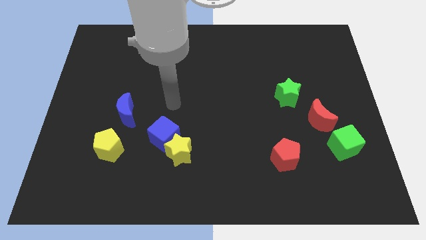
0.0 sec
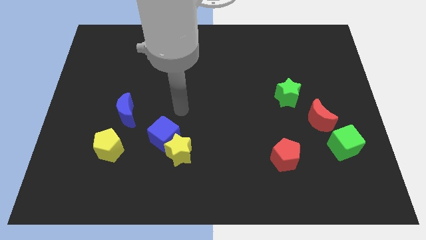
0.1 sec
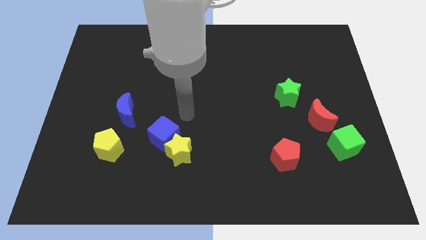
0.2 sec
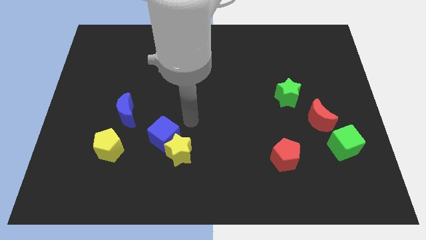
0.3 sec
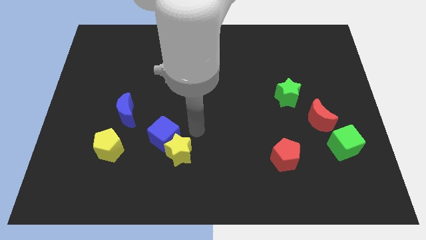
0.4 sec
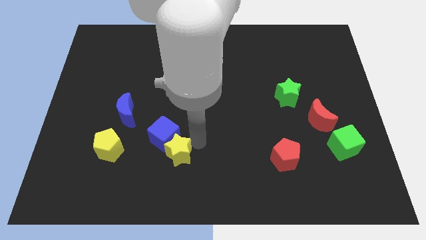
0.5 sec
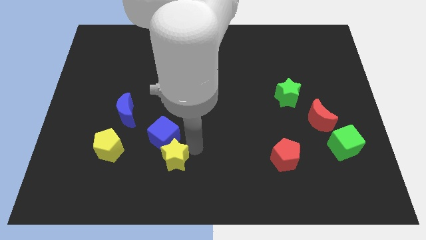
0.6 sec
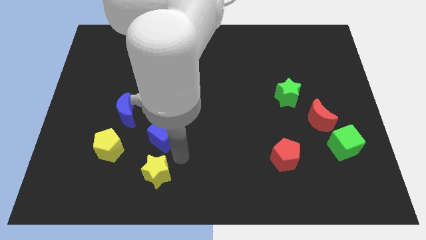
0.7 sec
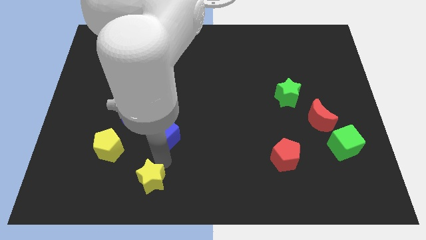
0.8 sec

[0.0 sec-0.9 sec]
move the blue cube away from the yellow star

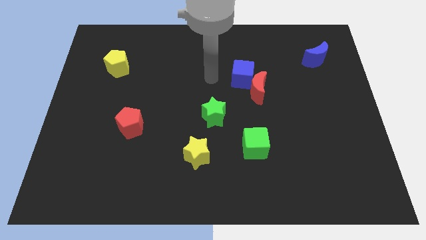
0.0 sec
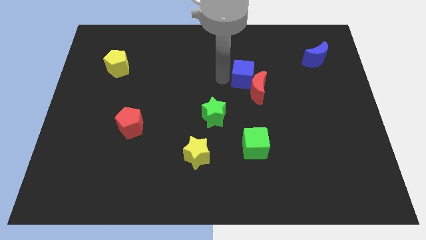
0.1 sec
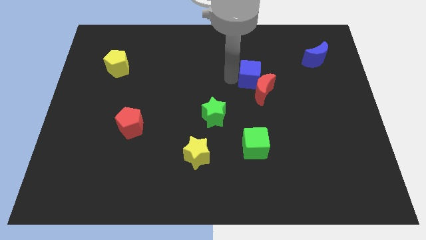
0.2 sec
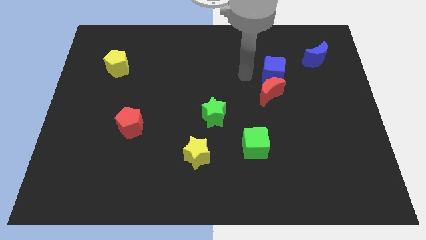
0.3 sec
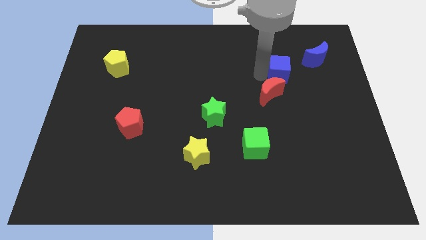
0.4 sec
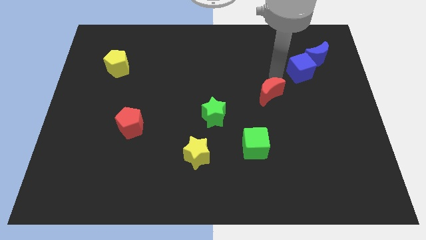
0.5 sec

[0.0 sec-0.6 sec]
move the red moon away from the blue cube

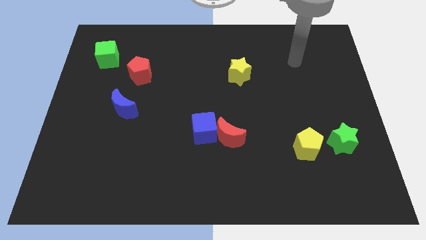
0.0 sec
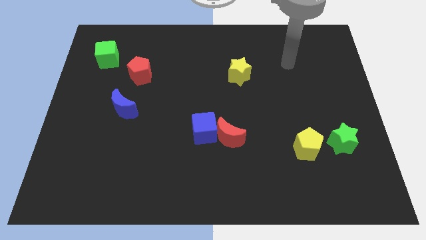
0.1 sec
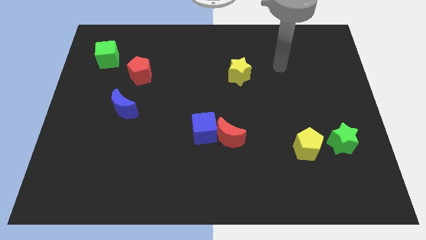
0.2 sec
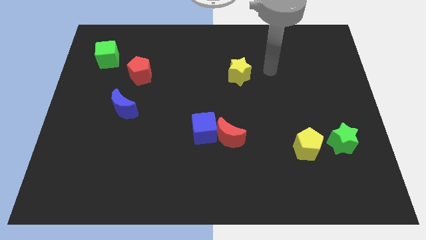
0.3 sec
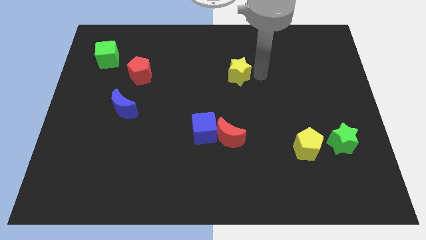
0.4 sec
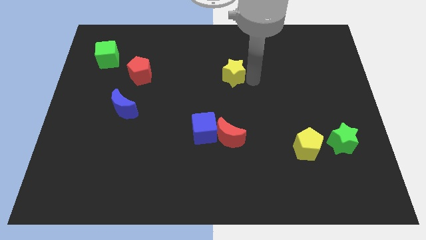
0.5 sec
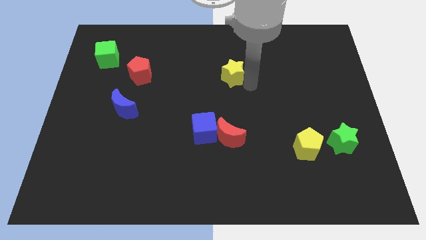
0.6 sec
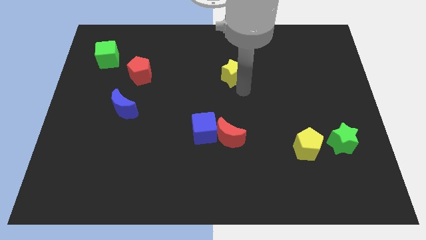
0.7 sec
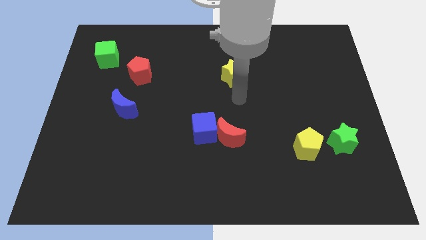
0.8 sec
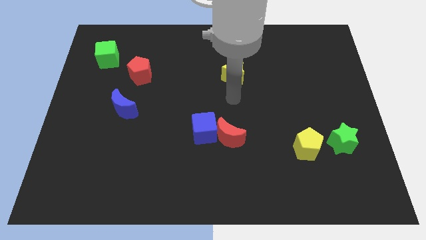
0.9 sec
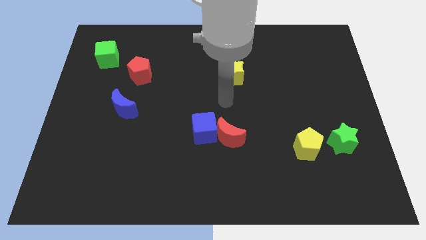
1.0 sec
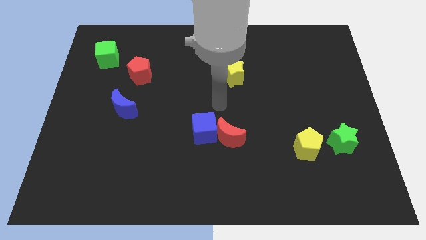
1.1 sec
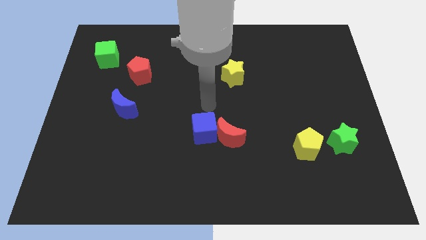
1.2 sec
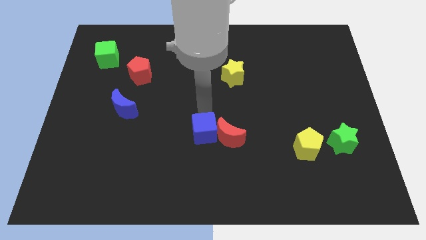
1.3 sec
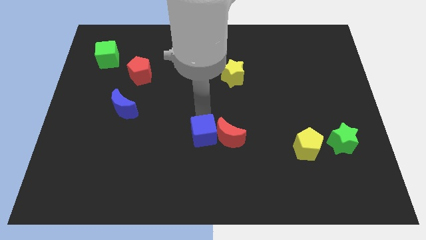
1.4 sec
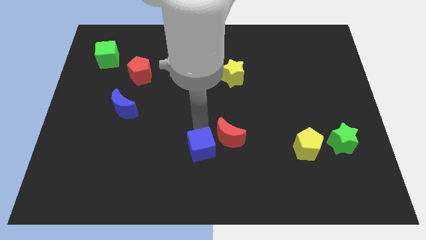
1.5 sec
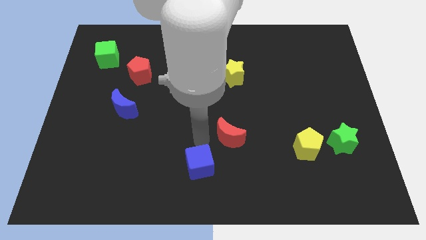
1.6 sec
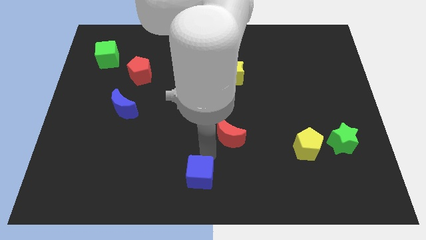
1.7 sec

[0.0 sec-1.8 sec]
pull the red moon apart from the blue cube

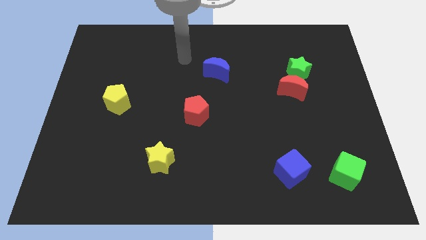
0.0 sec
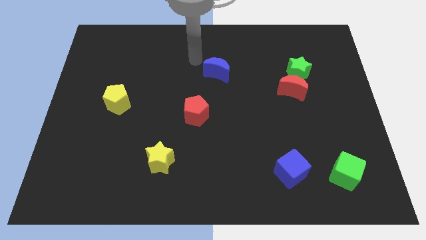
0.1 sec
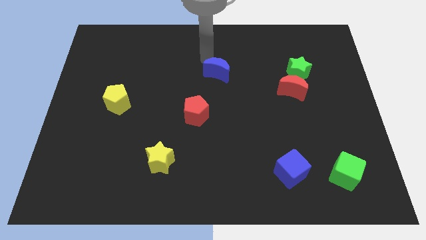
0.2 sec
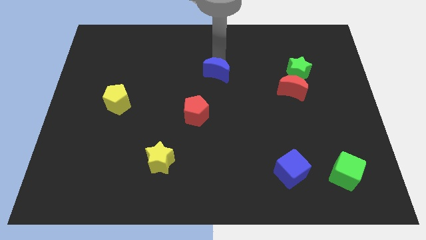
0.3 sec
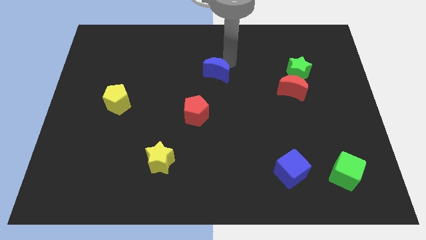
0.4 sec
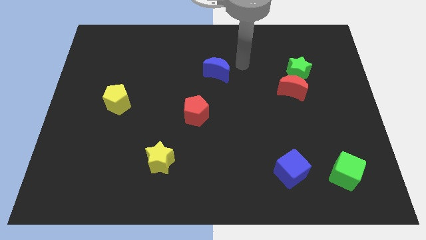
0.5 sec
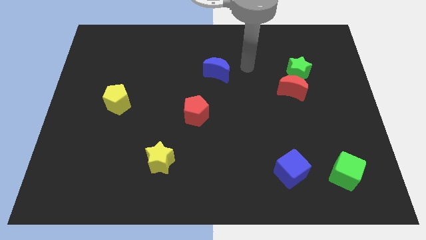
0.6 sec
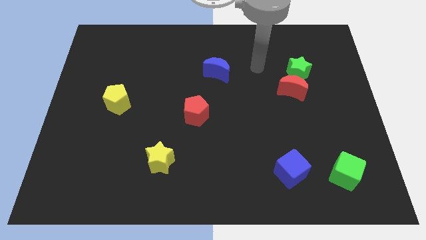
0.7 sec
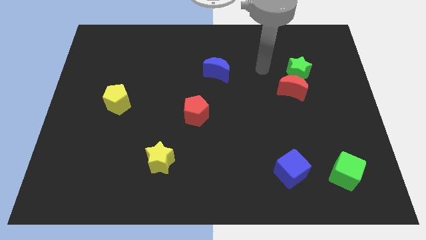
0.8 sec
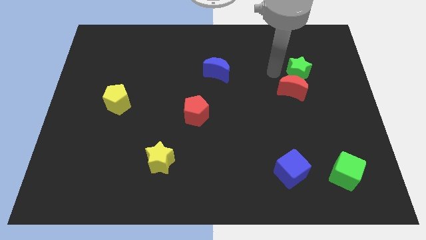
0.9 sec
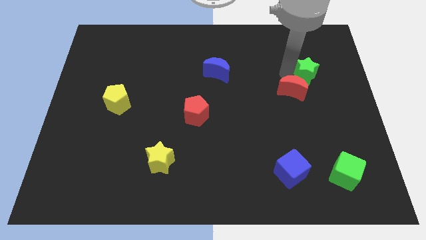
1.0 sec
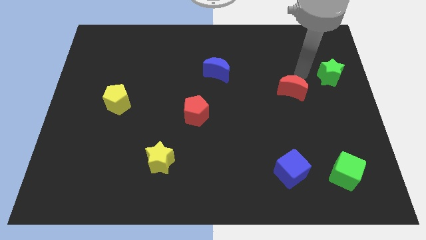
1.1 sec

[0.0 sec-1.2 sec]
pull the red moon apart from the green star

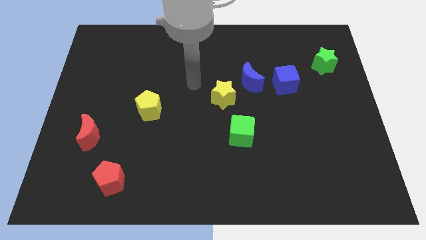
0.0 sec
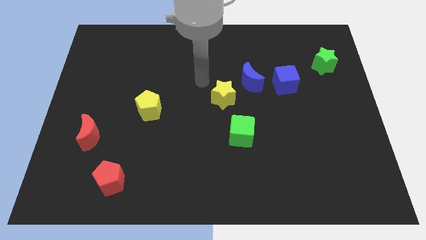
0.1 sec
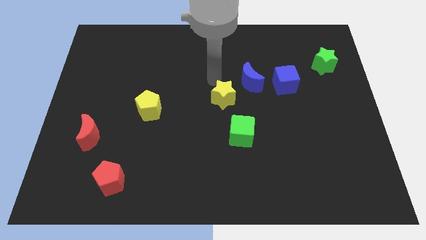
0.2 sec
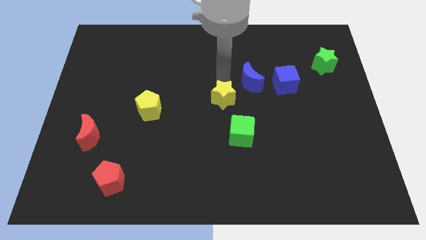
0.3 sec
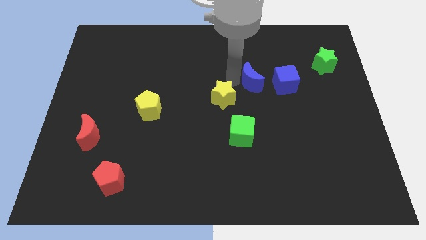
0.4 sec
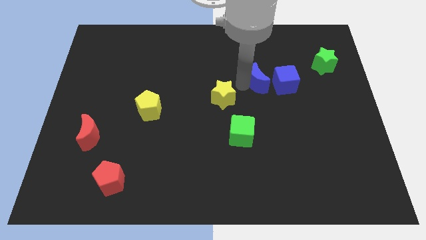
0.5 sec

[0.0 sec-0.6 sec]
move the yellow star away from the blue moon

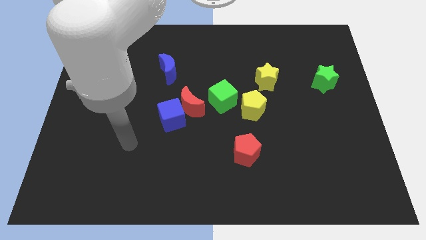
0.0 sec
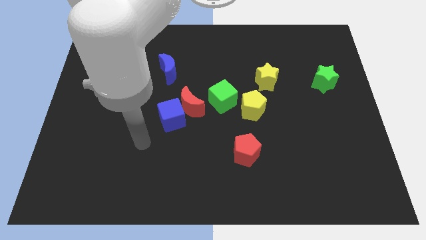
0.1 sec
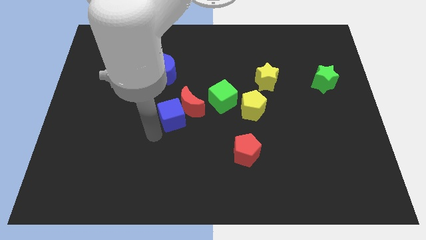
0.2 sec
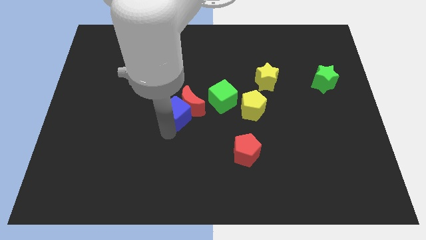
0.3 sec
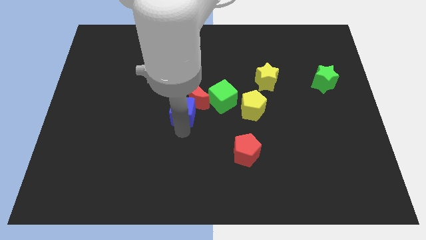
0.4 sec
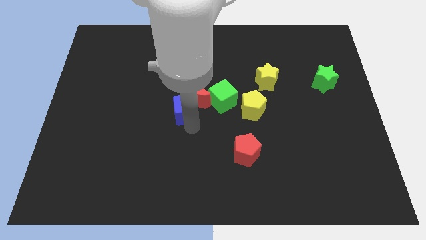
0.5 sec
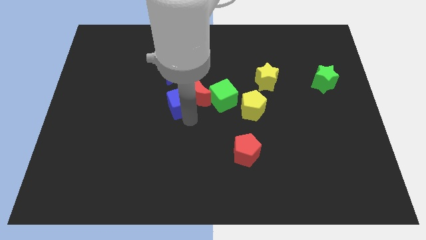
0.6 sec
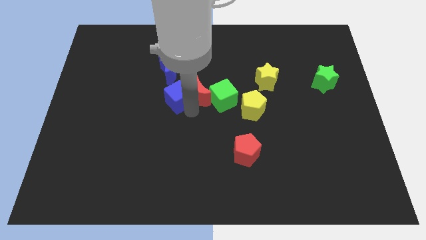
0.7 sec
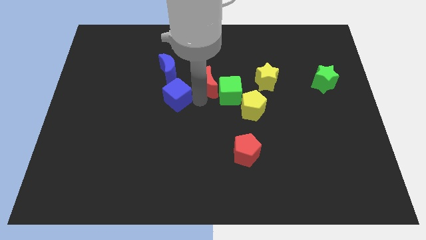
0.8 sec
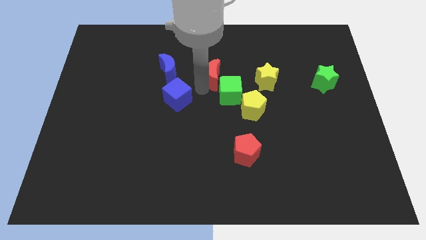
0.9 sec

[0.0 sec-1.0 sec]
pull the blue cube apart from the red moon

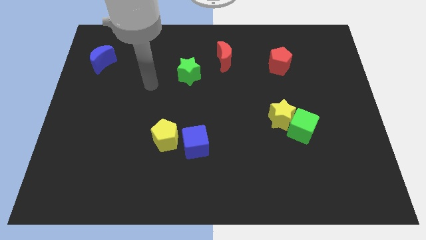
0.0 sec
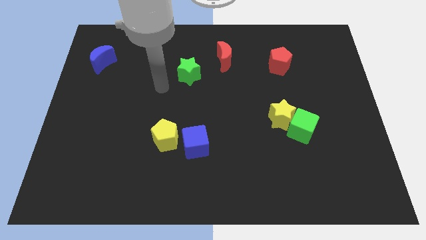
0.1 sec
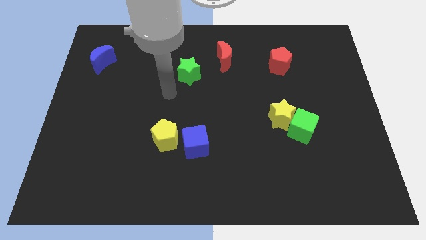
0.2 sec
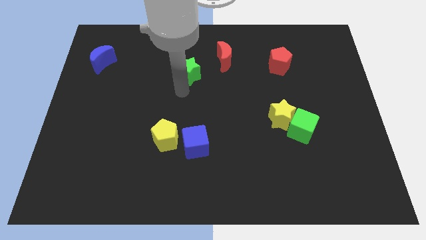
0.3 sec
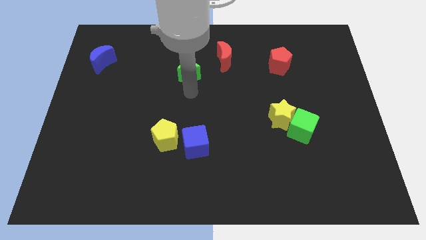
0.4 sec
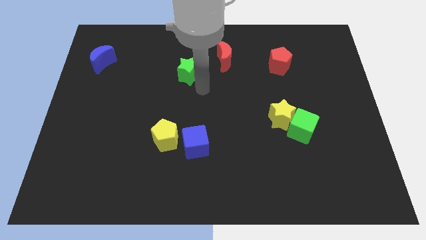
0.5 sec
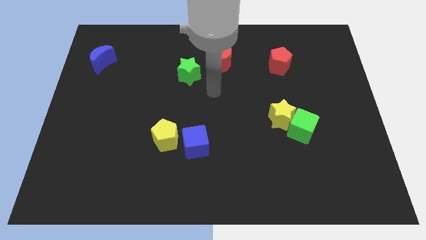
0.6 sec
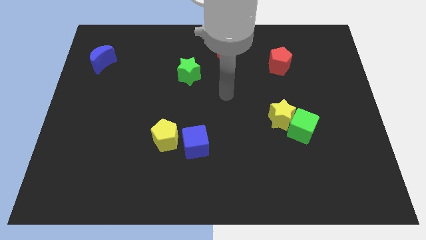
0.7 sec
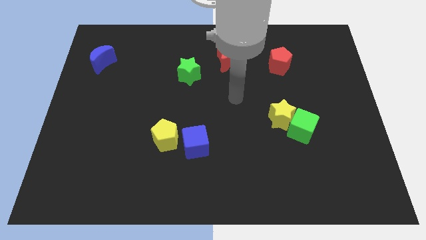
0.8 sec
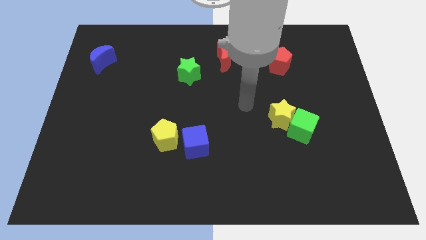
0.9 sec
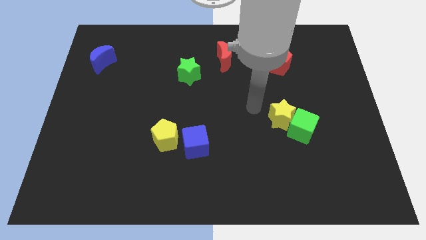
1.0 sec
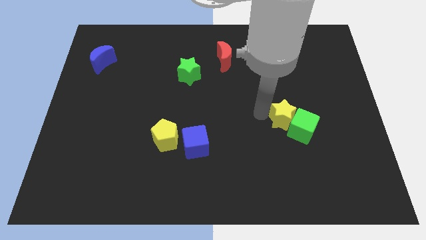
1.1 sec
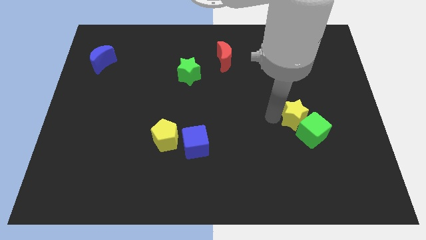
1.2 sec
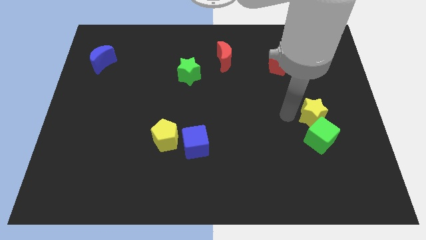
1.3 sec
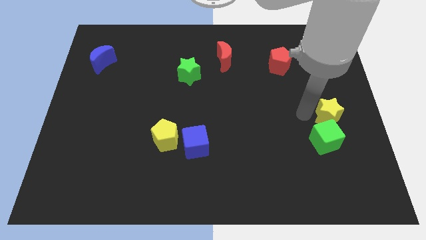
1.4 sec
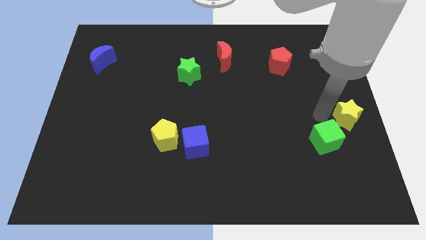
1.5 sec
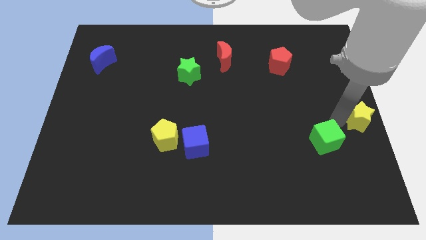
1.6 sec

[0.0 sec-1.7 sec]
pull the green cube apart from the yellow star

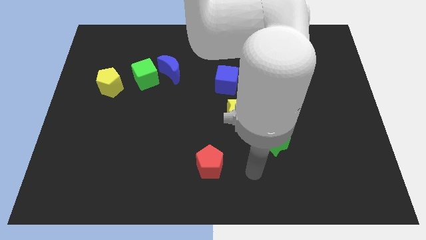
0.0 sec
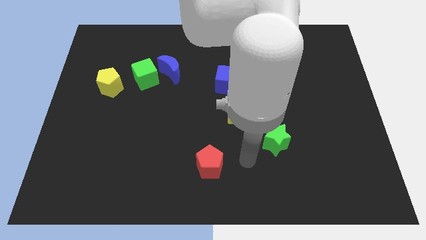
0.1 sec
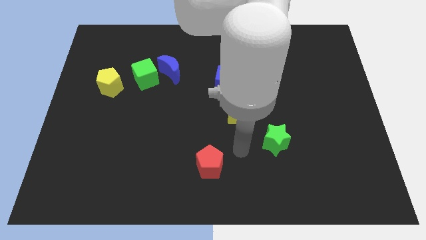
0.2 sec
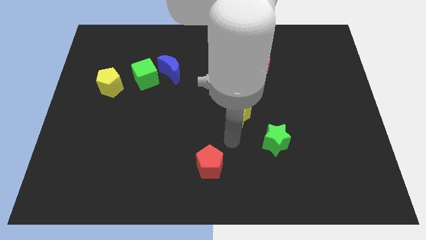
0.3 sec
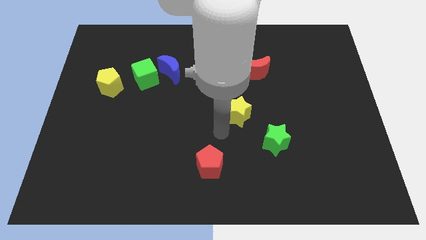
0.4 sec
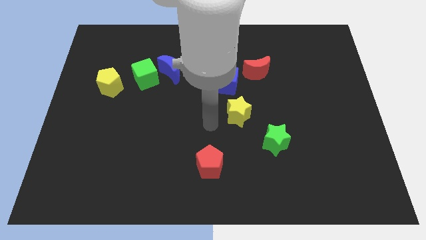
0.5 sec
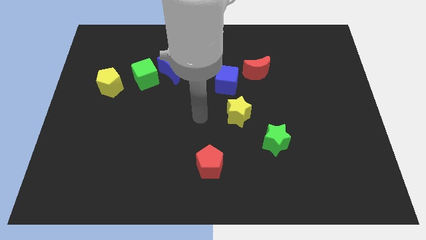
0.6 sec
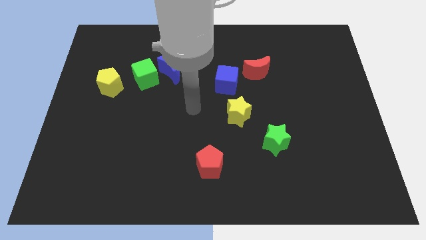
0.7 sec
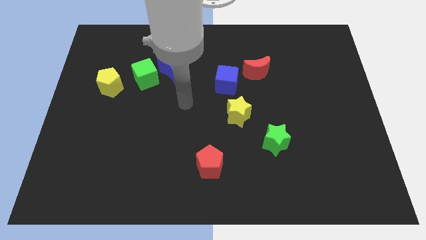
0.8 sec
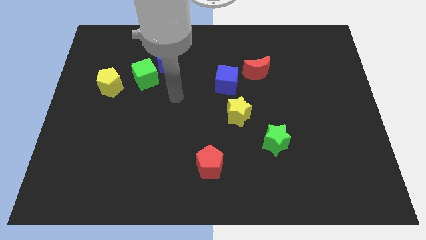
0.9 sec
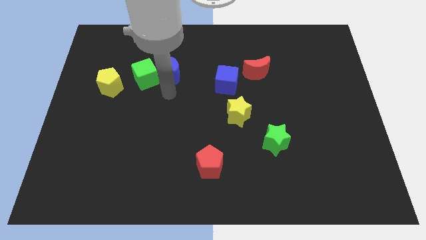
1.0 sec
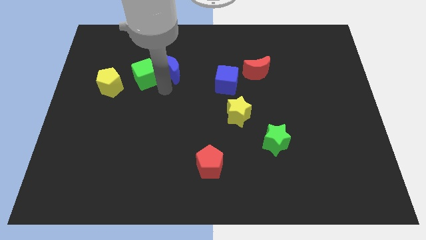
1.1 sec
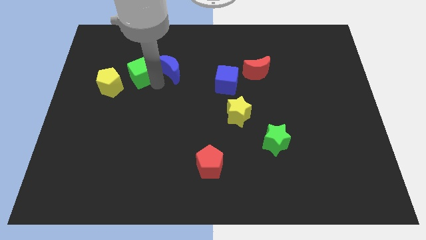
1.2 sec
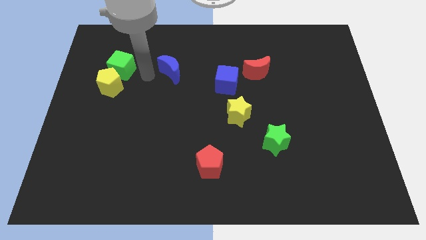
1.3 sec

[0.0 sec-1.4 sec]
separate the blue moon from the green cube
